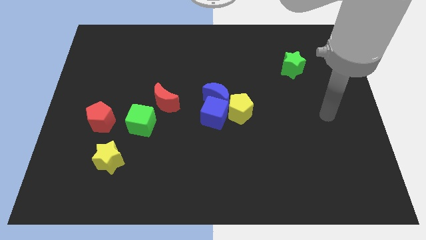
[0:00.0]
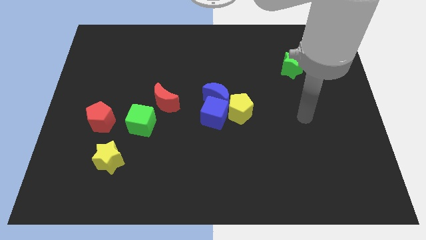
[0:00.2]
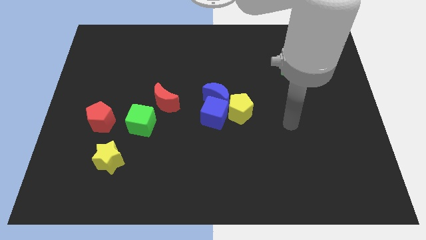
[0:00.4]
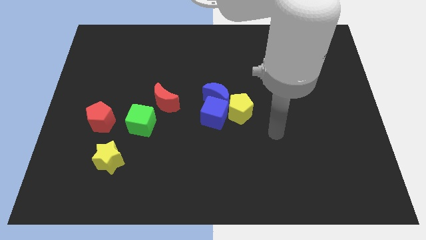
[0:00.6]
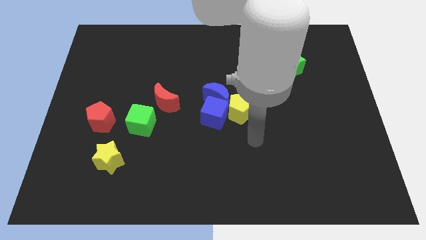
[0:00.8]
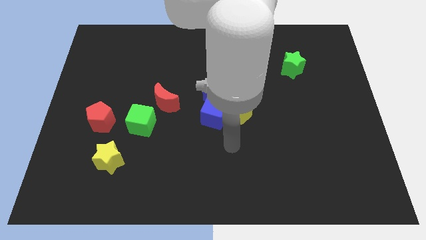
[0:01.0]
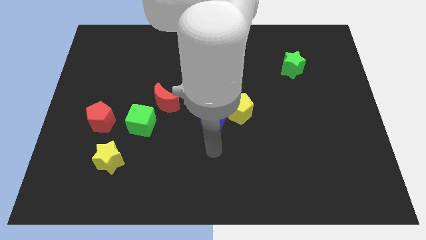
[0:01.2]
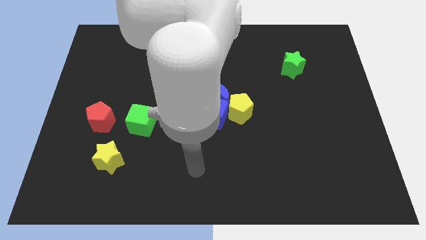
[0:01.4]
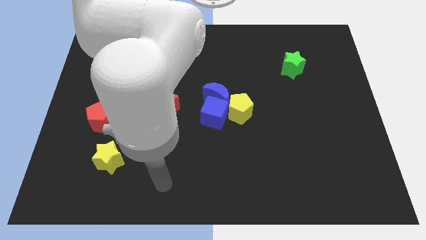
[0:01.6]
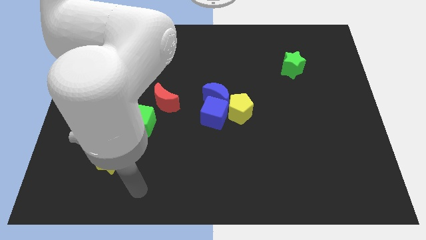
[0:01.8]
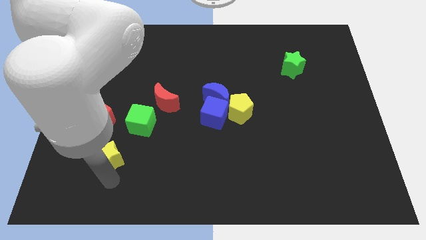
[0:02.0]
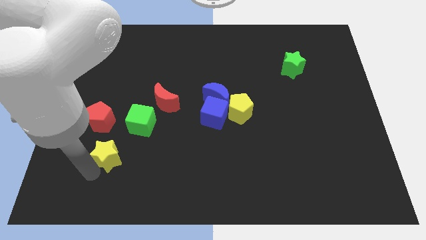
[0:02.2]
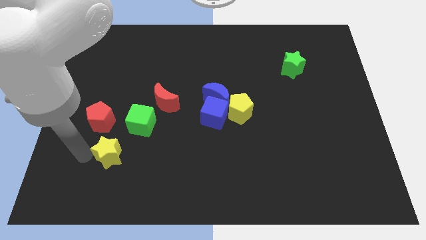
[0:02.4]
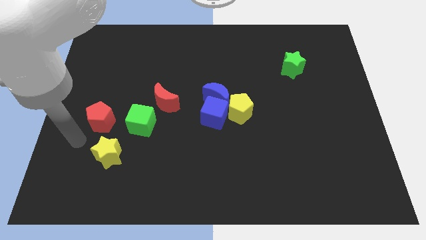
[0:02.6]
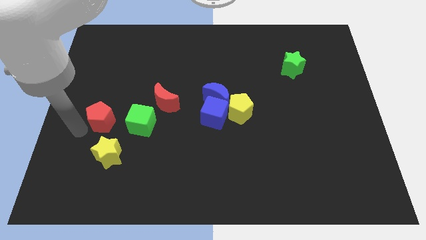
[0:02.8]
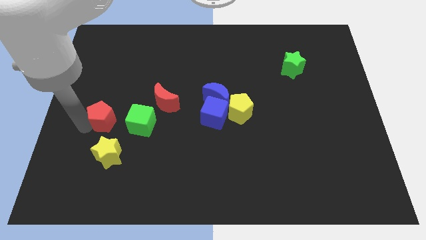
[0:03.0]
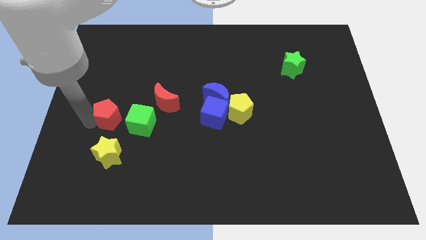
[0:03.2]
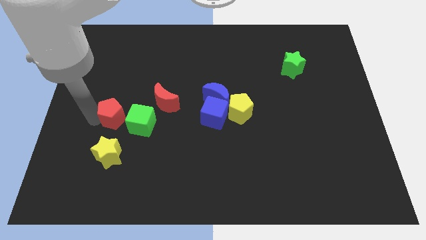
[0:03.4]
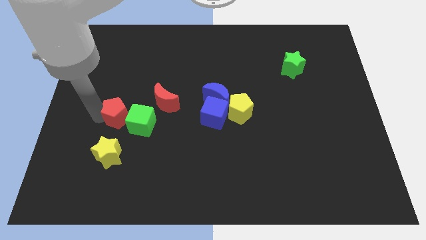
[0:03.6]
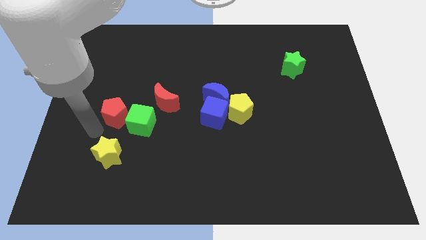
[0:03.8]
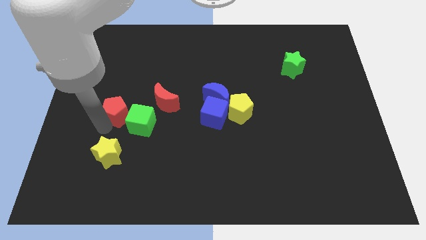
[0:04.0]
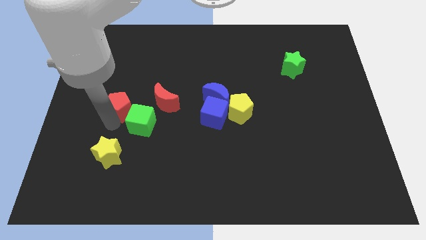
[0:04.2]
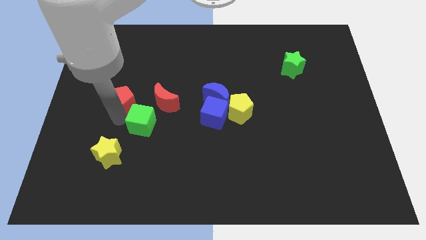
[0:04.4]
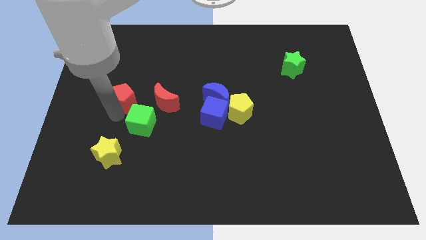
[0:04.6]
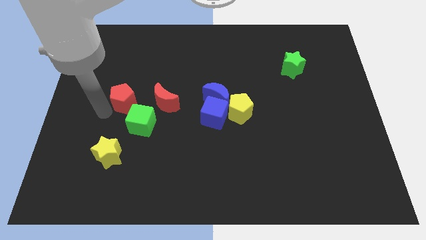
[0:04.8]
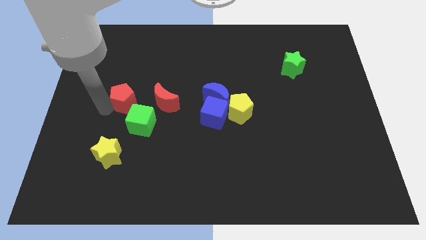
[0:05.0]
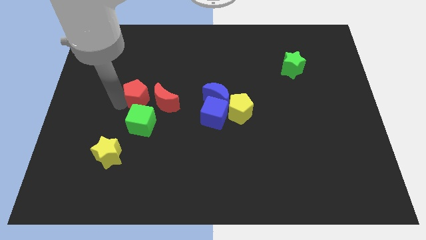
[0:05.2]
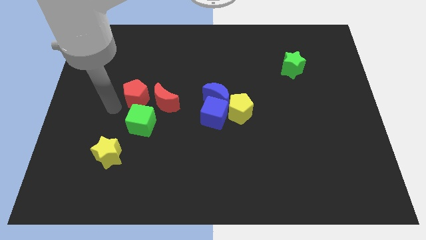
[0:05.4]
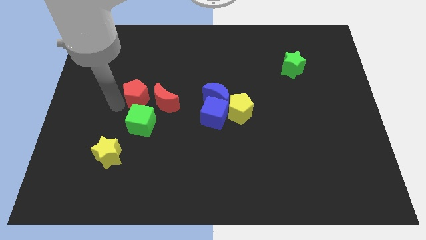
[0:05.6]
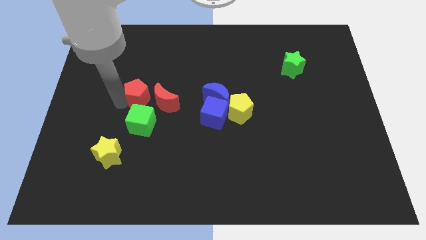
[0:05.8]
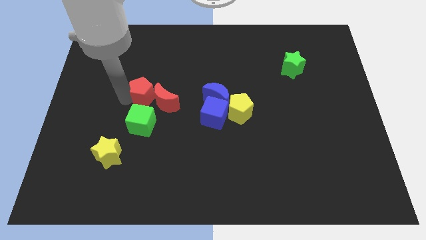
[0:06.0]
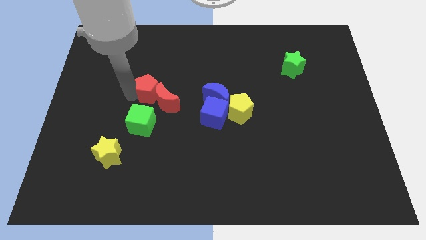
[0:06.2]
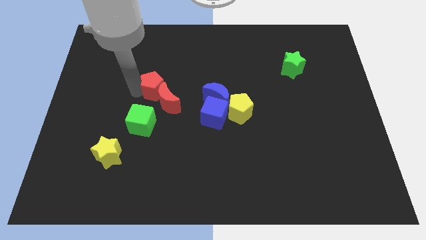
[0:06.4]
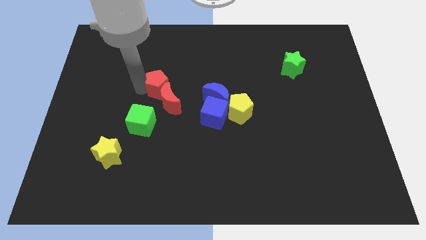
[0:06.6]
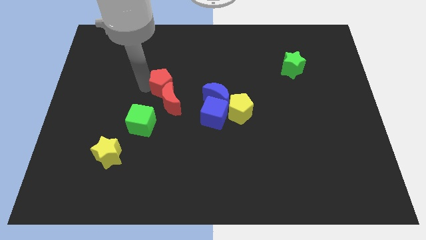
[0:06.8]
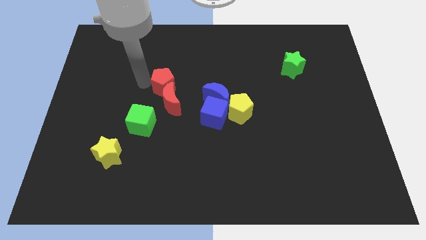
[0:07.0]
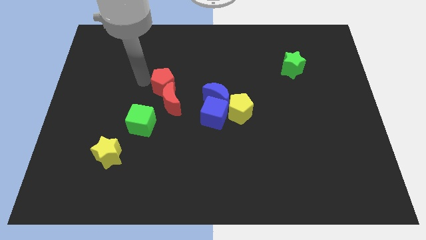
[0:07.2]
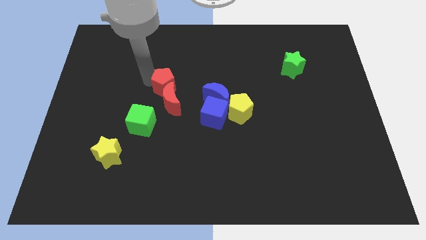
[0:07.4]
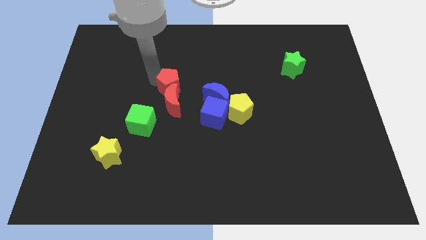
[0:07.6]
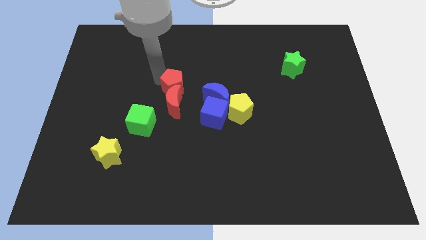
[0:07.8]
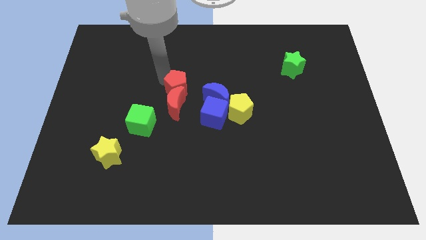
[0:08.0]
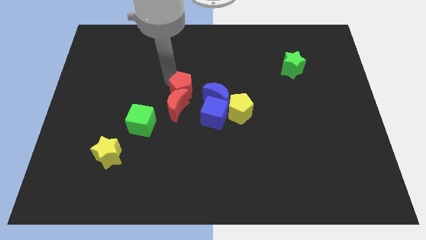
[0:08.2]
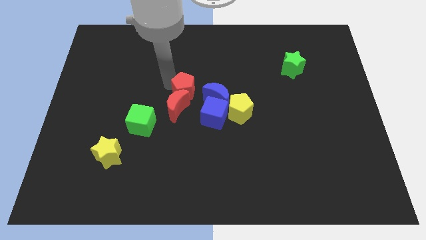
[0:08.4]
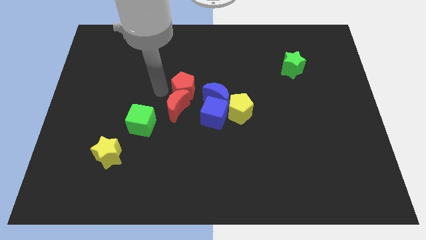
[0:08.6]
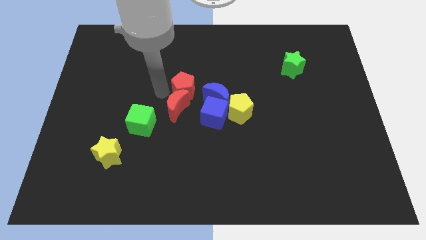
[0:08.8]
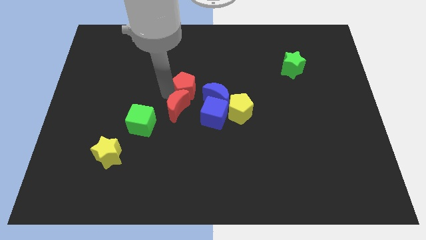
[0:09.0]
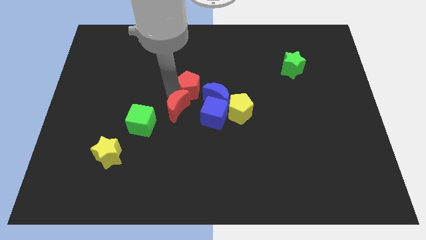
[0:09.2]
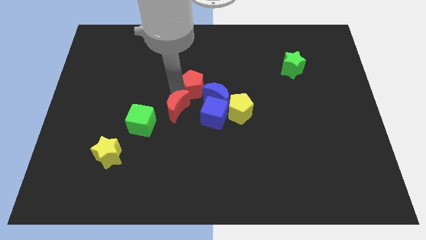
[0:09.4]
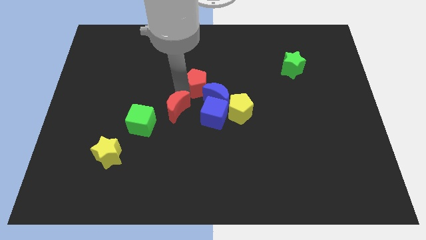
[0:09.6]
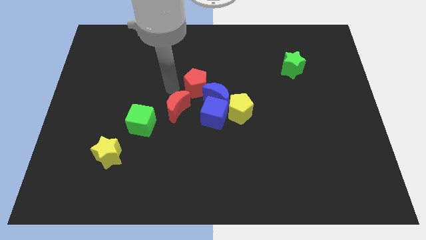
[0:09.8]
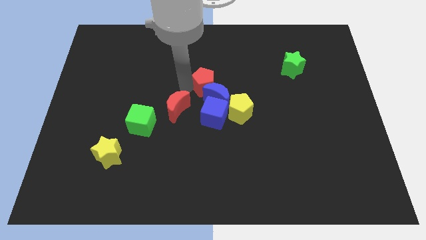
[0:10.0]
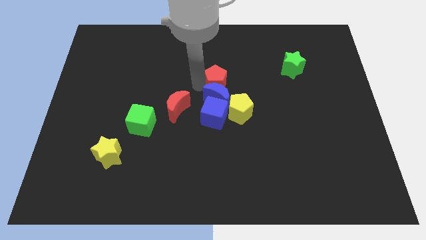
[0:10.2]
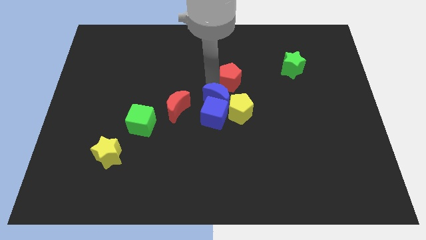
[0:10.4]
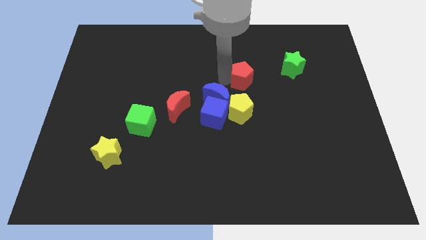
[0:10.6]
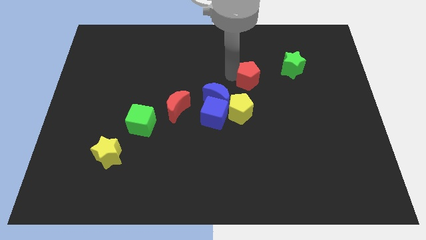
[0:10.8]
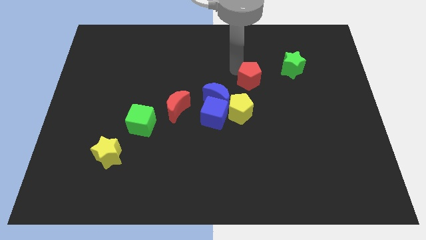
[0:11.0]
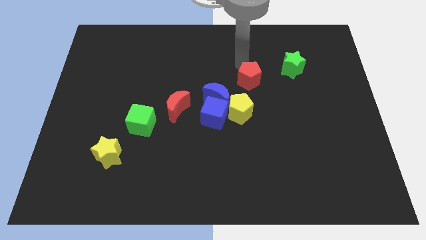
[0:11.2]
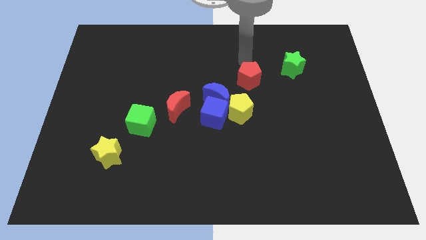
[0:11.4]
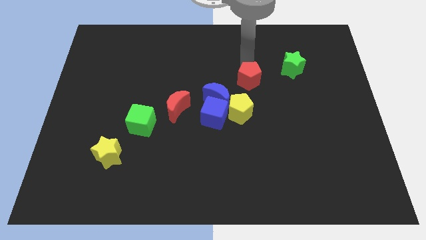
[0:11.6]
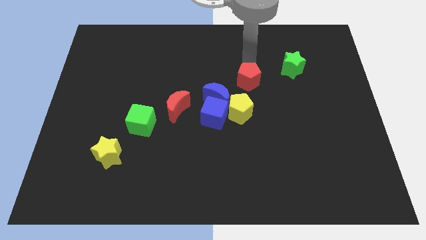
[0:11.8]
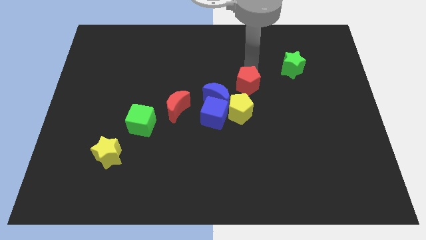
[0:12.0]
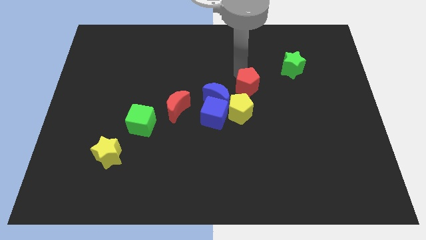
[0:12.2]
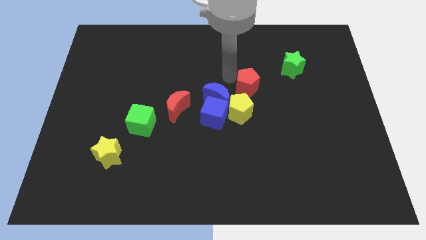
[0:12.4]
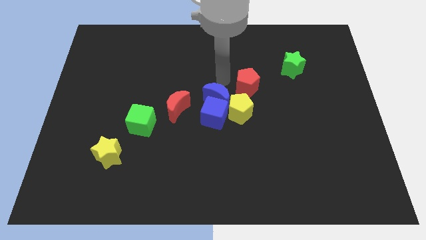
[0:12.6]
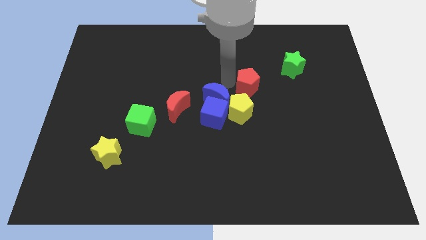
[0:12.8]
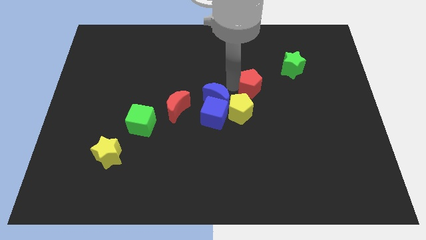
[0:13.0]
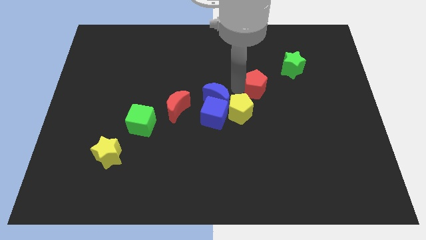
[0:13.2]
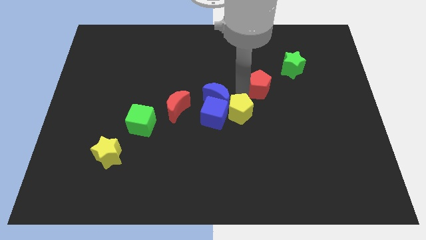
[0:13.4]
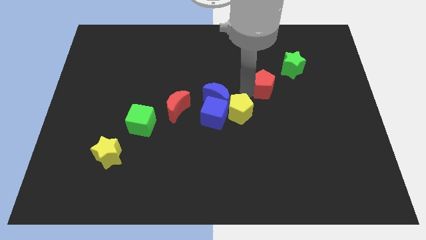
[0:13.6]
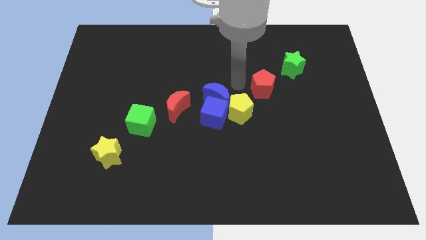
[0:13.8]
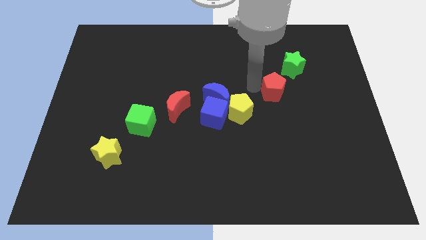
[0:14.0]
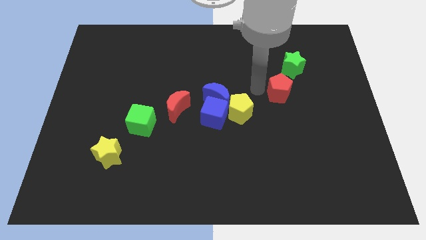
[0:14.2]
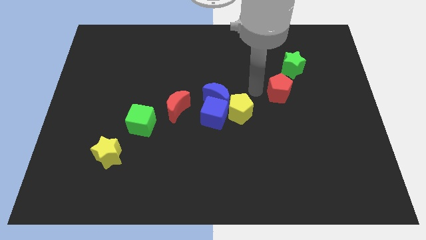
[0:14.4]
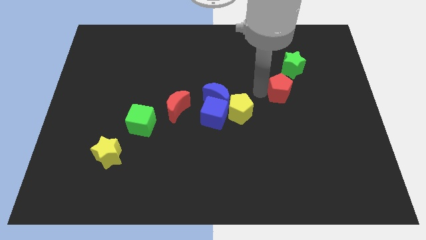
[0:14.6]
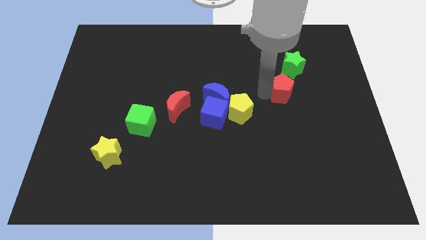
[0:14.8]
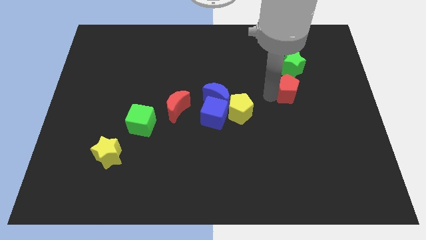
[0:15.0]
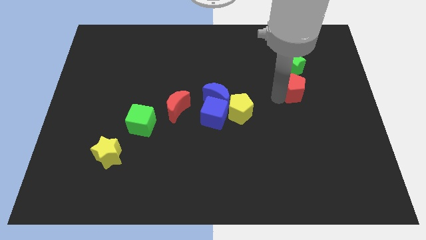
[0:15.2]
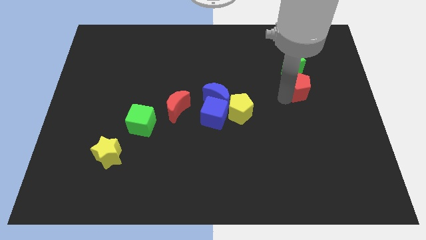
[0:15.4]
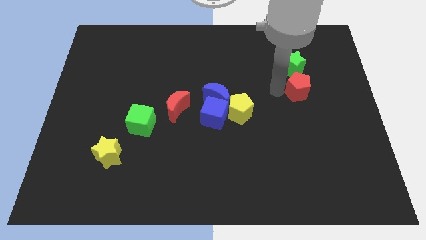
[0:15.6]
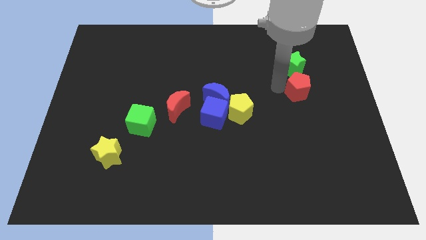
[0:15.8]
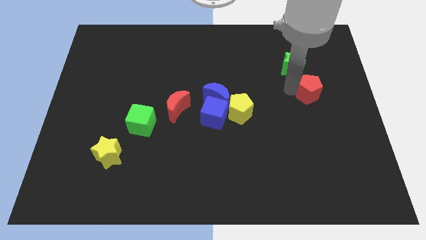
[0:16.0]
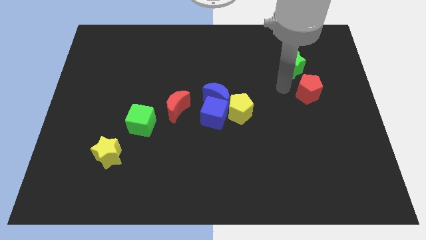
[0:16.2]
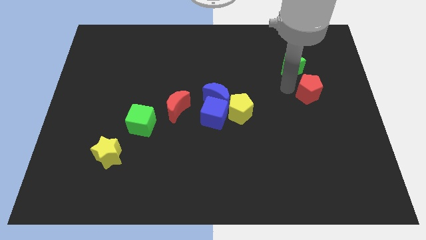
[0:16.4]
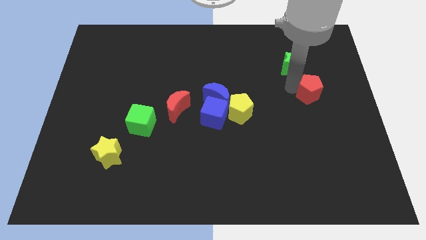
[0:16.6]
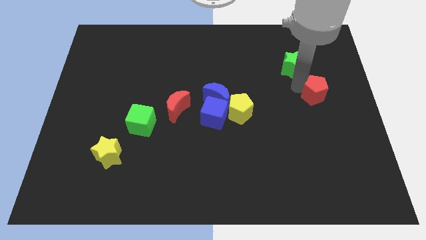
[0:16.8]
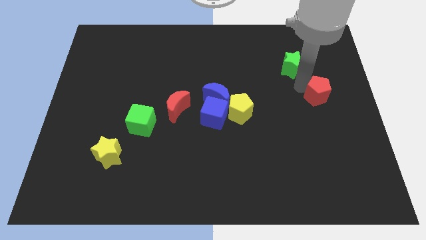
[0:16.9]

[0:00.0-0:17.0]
move the red pentagon to the right side of the board
